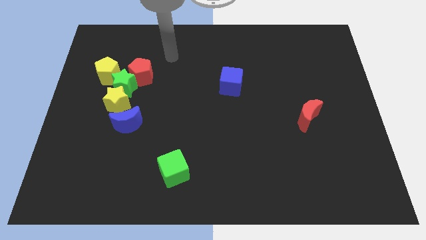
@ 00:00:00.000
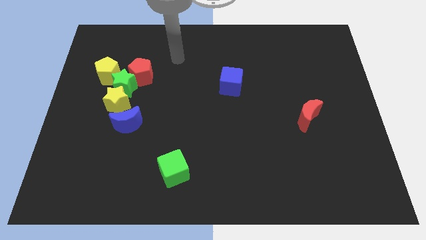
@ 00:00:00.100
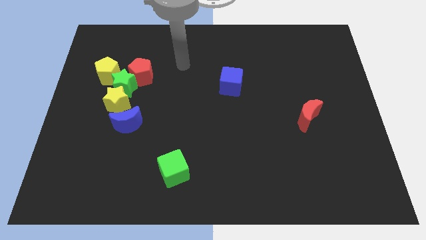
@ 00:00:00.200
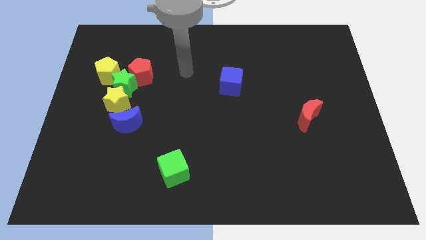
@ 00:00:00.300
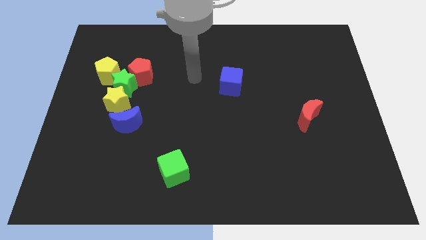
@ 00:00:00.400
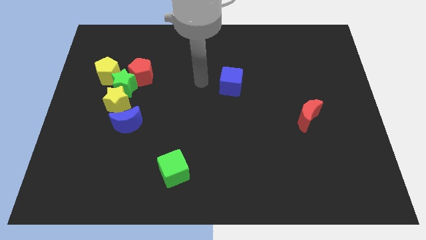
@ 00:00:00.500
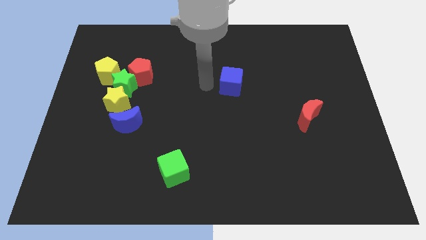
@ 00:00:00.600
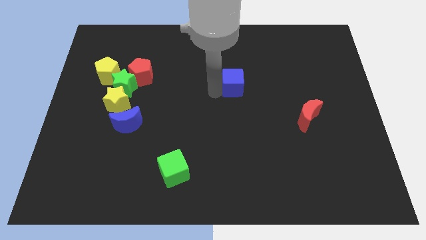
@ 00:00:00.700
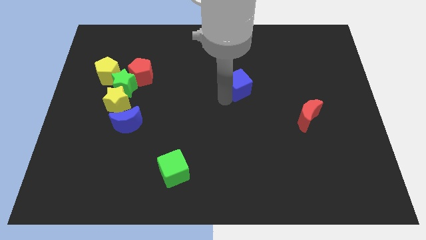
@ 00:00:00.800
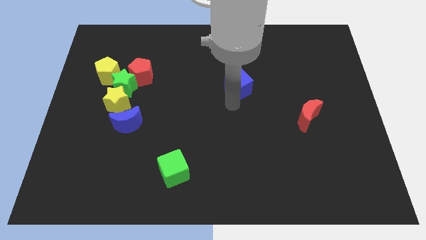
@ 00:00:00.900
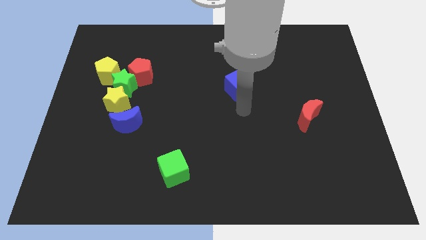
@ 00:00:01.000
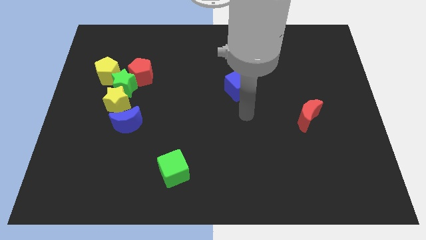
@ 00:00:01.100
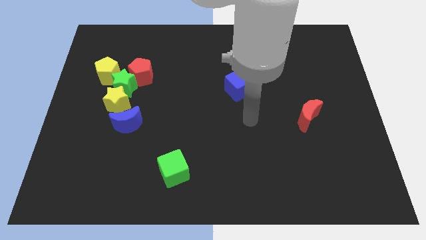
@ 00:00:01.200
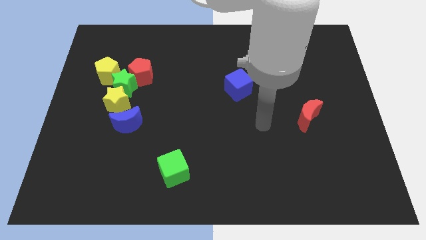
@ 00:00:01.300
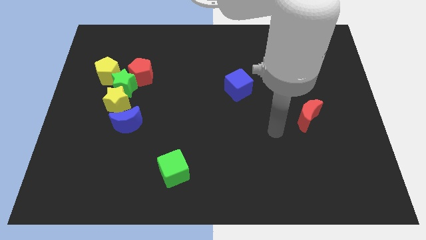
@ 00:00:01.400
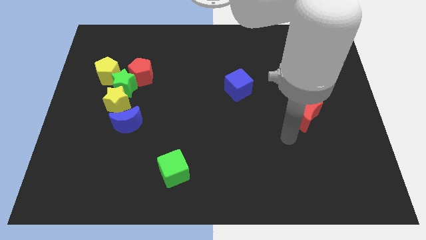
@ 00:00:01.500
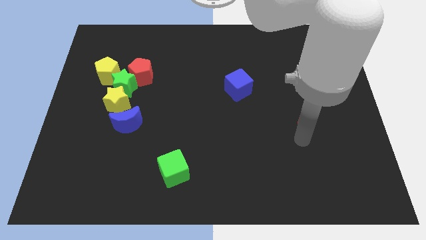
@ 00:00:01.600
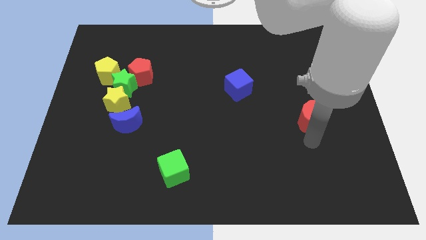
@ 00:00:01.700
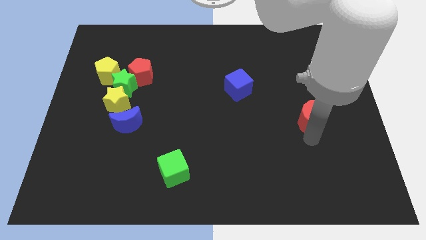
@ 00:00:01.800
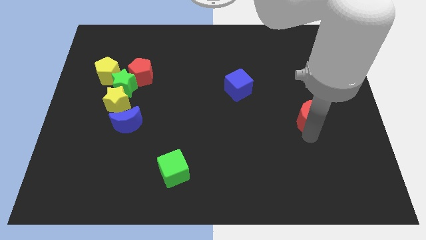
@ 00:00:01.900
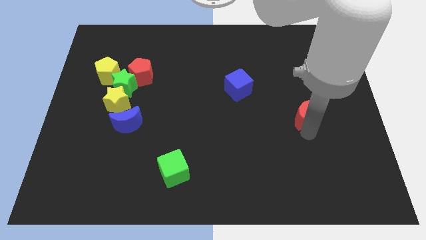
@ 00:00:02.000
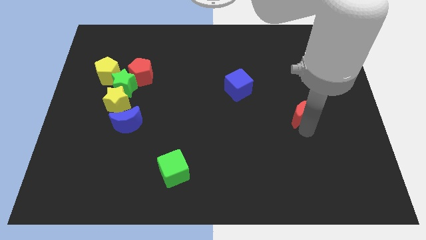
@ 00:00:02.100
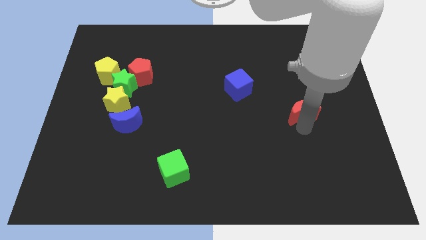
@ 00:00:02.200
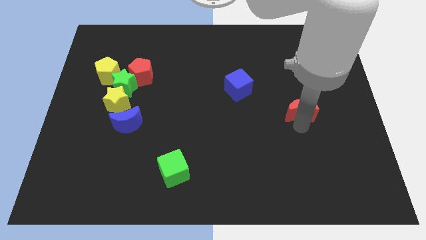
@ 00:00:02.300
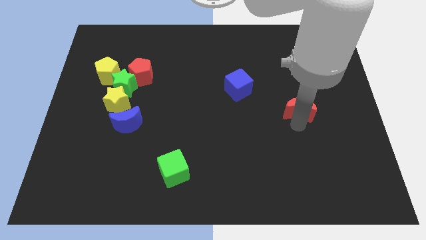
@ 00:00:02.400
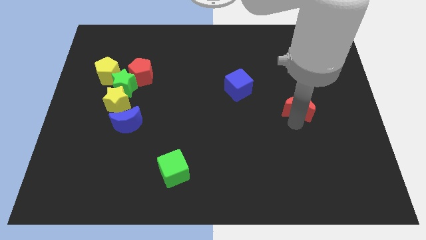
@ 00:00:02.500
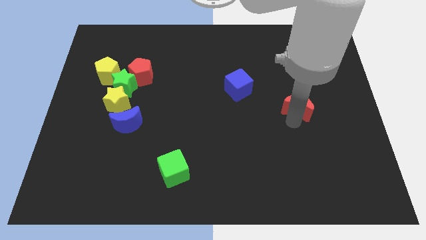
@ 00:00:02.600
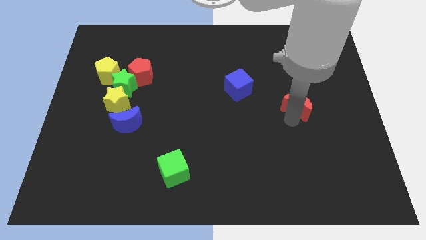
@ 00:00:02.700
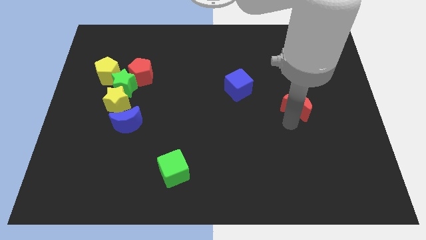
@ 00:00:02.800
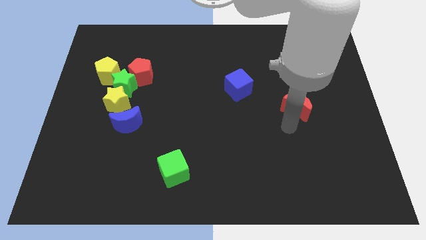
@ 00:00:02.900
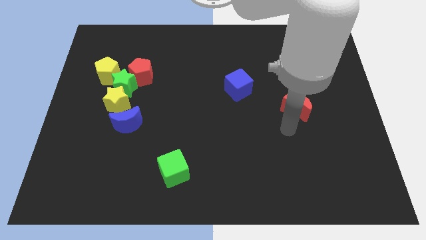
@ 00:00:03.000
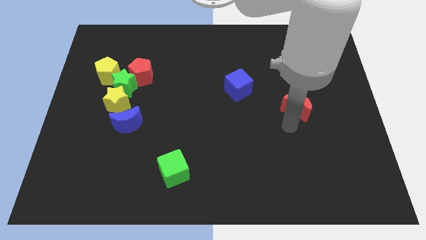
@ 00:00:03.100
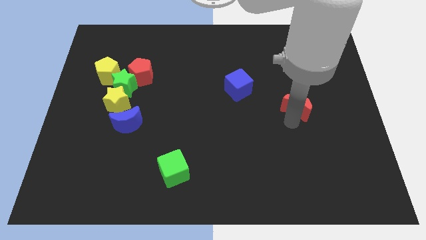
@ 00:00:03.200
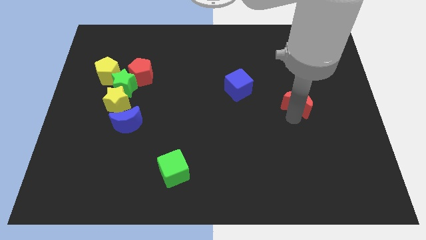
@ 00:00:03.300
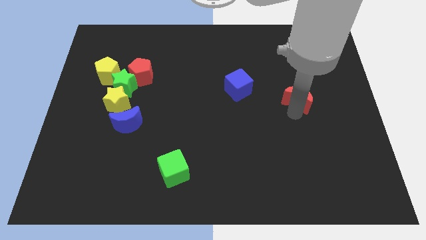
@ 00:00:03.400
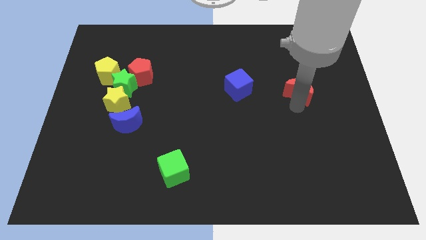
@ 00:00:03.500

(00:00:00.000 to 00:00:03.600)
slightly move the red moon upwards

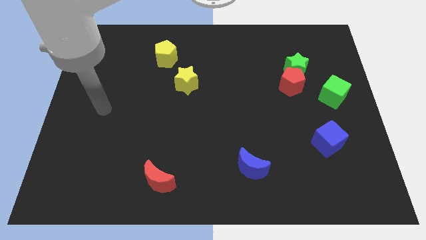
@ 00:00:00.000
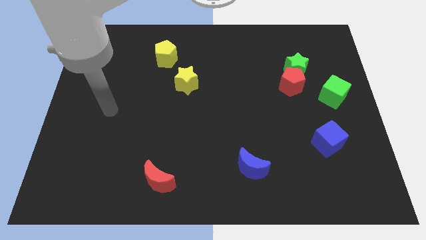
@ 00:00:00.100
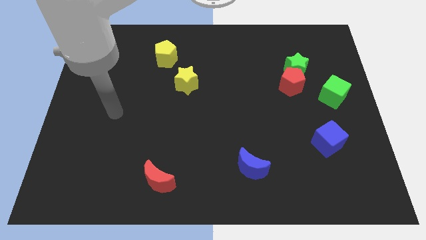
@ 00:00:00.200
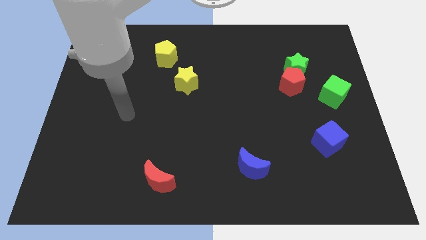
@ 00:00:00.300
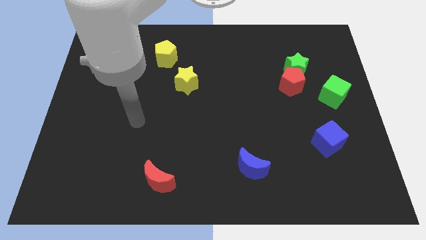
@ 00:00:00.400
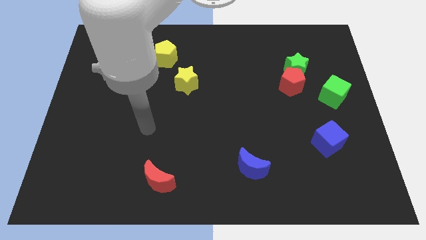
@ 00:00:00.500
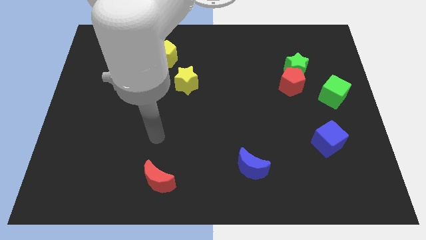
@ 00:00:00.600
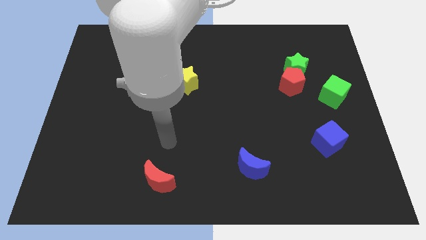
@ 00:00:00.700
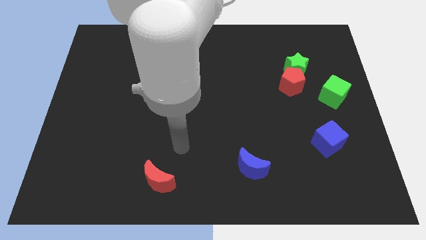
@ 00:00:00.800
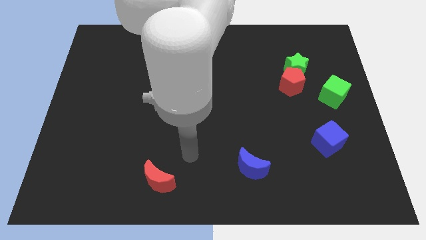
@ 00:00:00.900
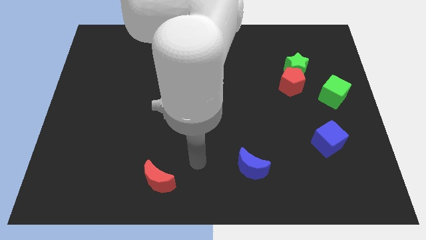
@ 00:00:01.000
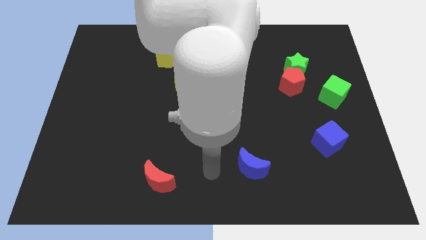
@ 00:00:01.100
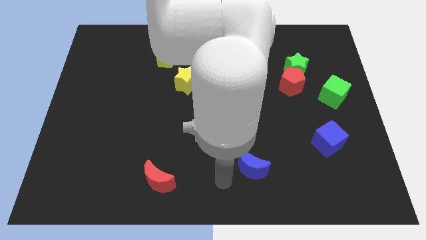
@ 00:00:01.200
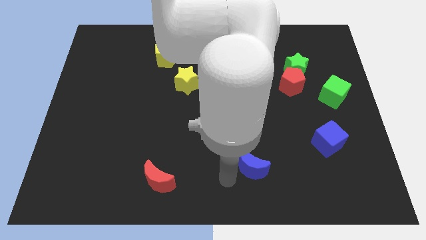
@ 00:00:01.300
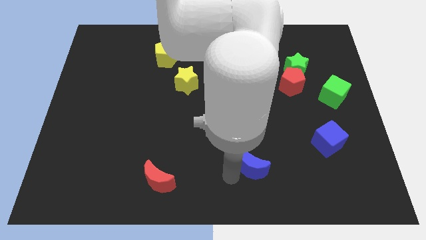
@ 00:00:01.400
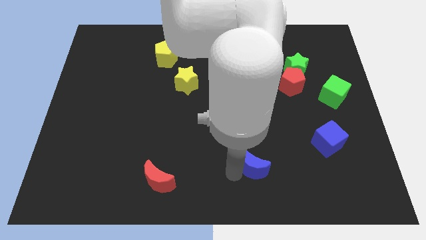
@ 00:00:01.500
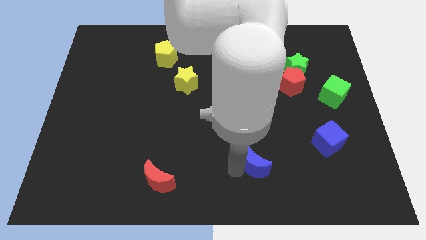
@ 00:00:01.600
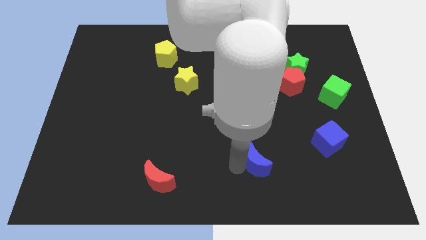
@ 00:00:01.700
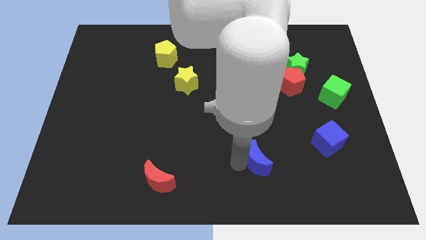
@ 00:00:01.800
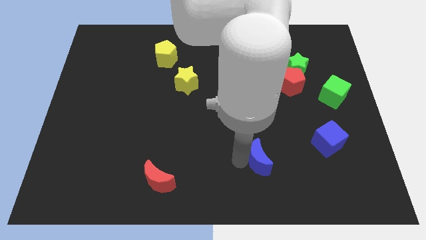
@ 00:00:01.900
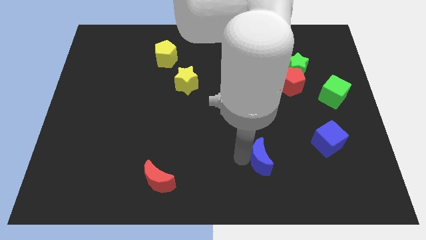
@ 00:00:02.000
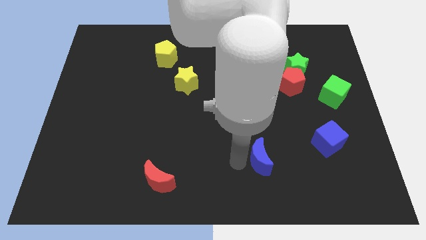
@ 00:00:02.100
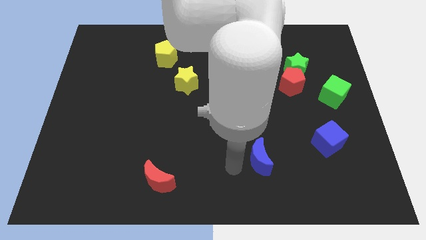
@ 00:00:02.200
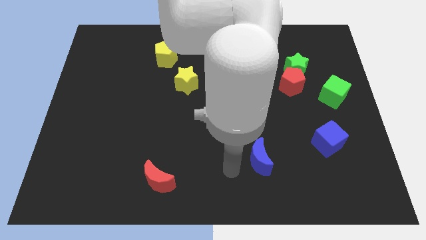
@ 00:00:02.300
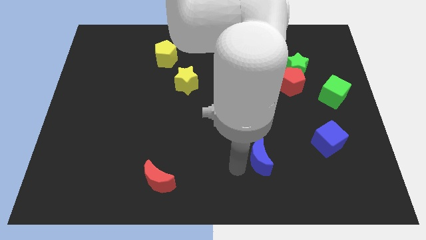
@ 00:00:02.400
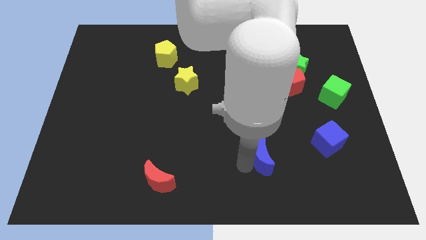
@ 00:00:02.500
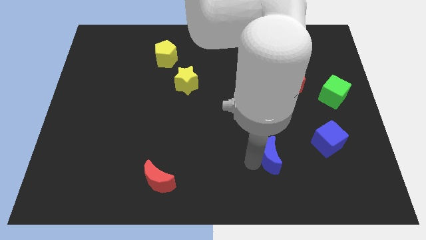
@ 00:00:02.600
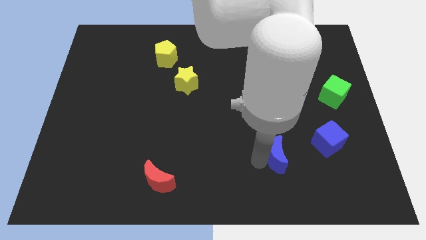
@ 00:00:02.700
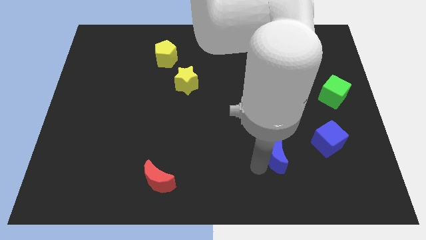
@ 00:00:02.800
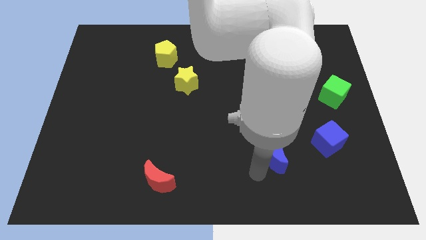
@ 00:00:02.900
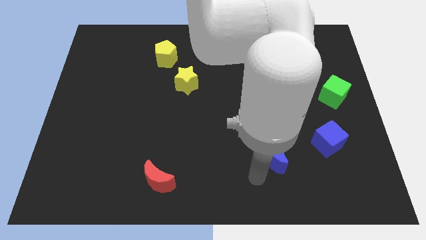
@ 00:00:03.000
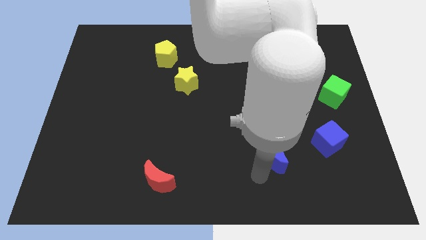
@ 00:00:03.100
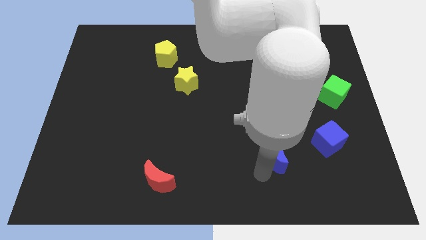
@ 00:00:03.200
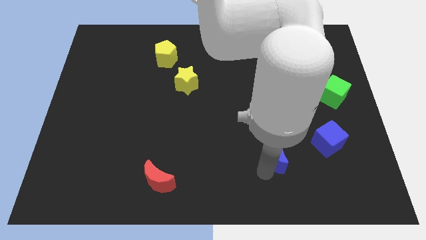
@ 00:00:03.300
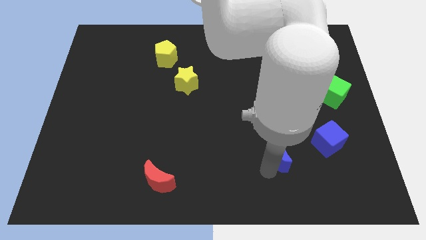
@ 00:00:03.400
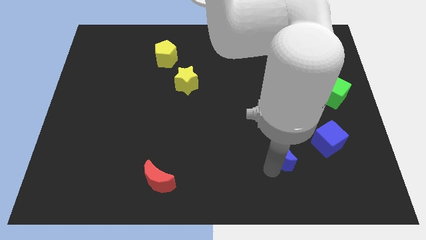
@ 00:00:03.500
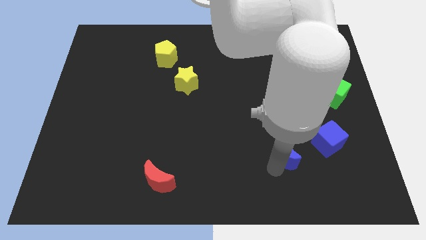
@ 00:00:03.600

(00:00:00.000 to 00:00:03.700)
slide the blue moon upwards and to the right a little bit

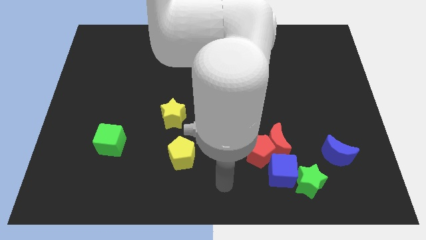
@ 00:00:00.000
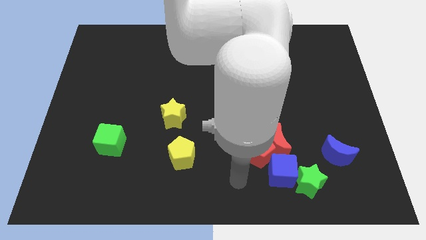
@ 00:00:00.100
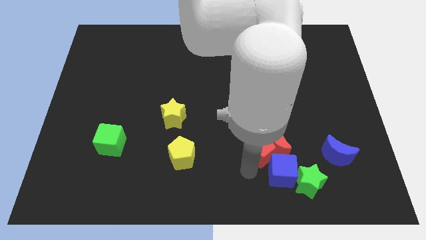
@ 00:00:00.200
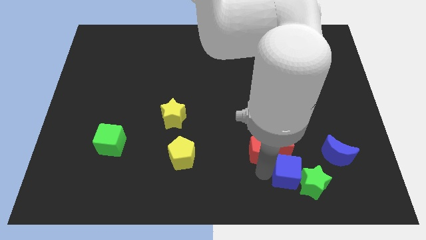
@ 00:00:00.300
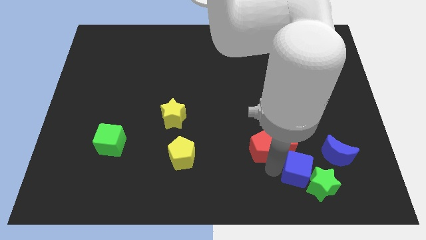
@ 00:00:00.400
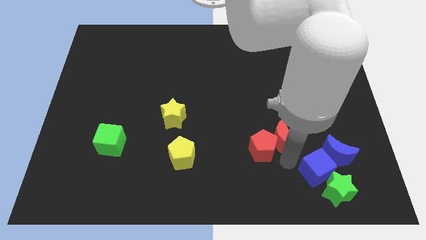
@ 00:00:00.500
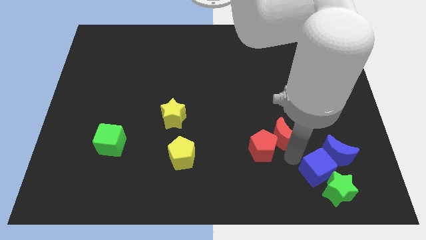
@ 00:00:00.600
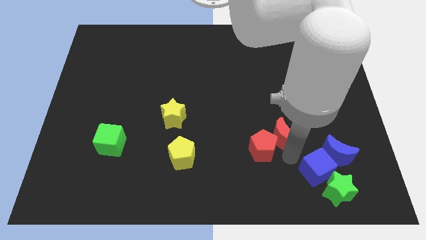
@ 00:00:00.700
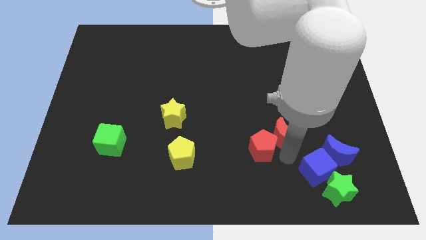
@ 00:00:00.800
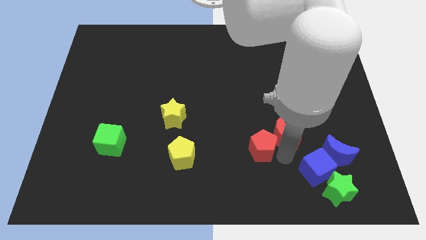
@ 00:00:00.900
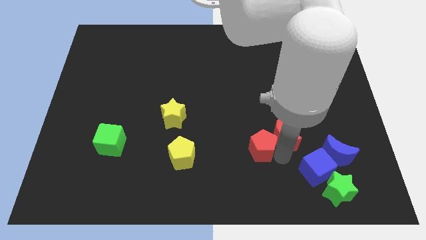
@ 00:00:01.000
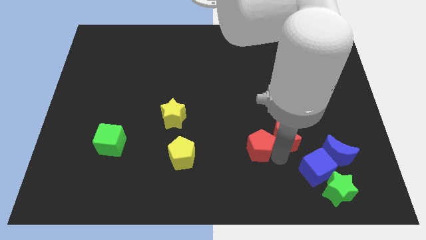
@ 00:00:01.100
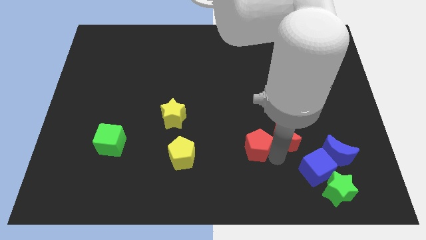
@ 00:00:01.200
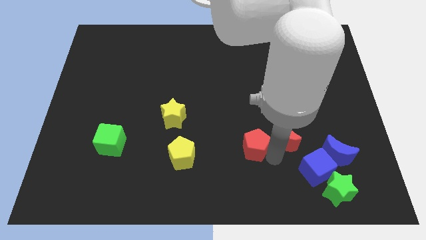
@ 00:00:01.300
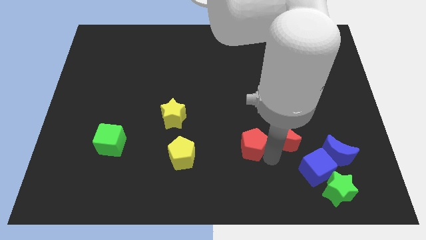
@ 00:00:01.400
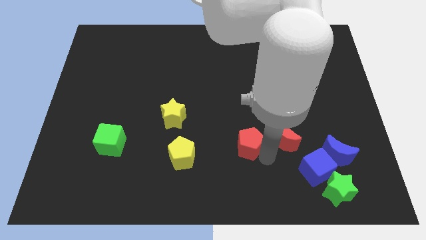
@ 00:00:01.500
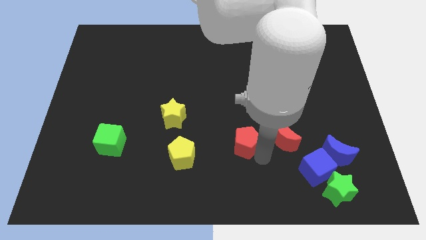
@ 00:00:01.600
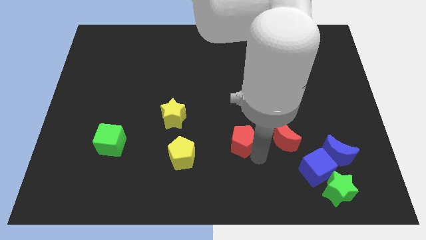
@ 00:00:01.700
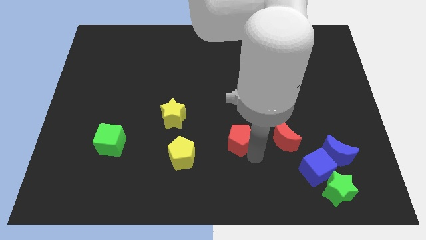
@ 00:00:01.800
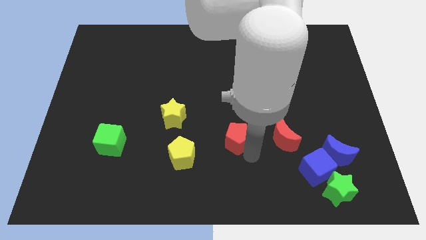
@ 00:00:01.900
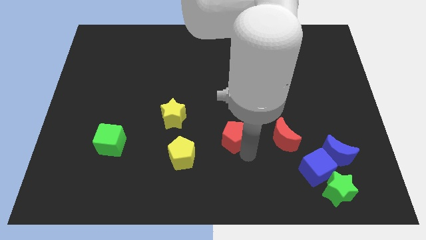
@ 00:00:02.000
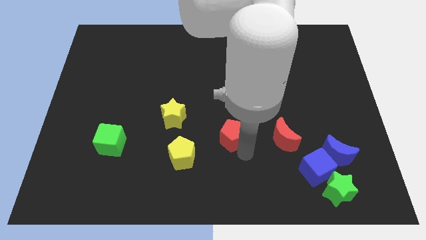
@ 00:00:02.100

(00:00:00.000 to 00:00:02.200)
slide the red pentagon slightly upwards and then left
